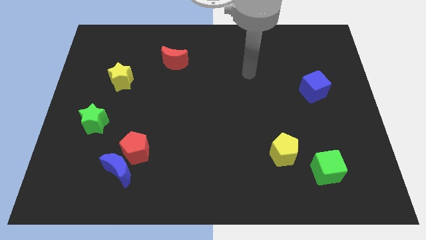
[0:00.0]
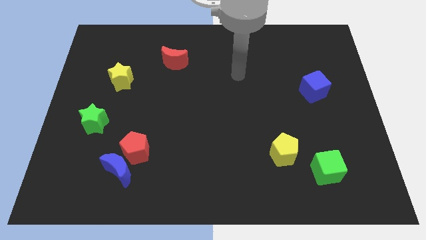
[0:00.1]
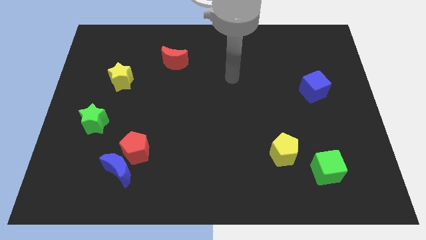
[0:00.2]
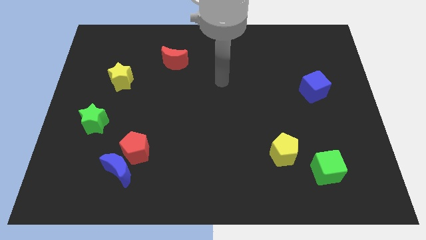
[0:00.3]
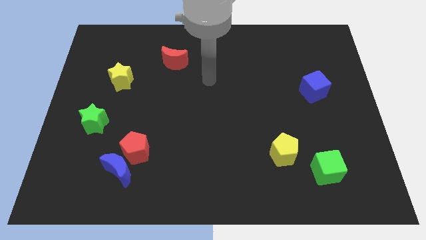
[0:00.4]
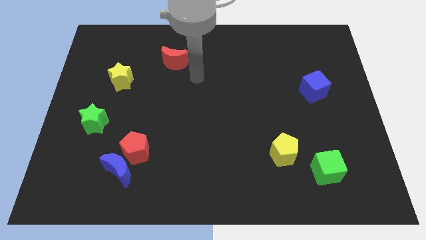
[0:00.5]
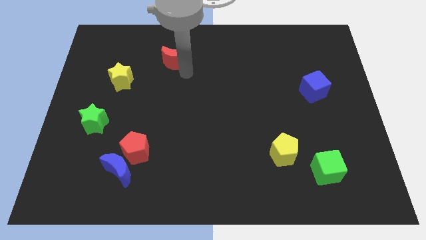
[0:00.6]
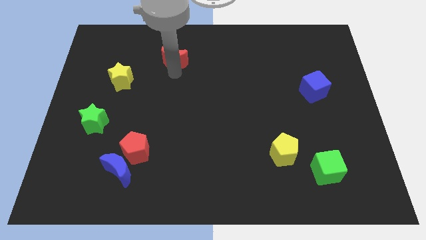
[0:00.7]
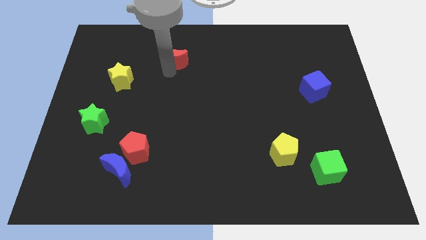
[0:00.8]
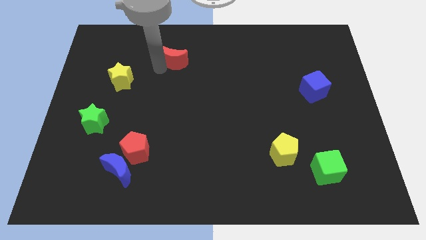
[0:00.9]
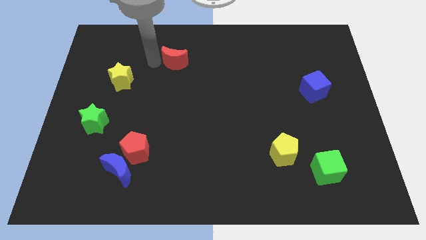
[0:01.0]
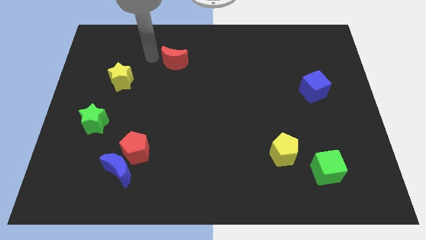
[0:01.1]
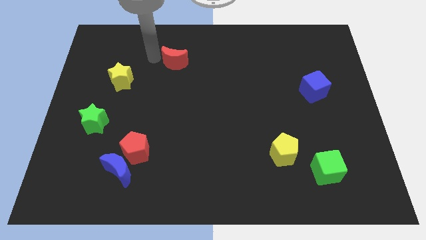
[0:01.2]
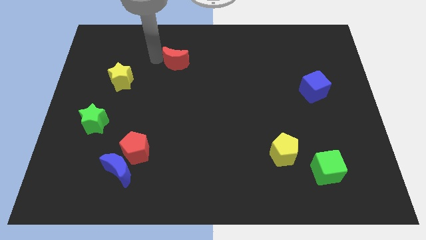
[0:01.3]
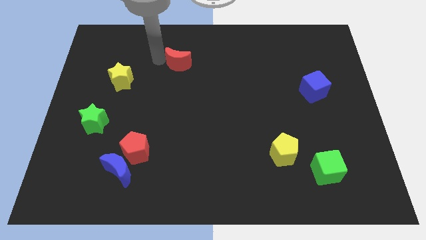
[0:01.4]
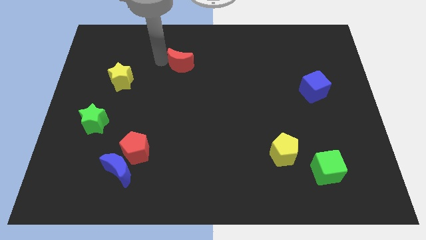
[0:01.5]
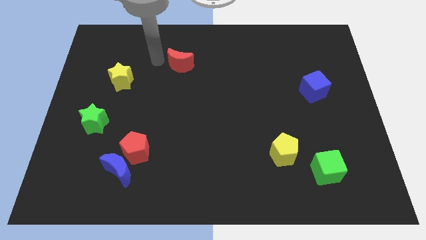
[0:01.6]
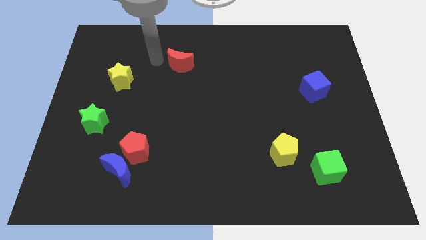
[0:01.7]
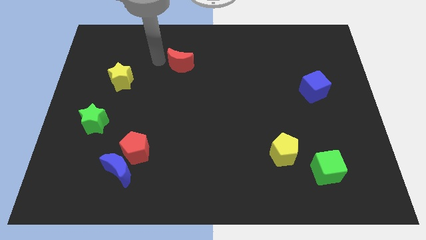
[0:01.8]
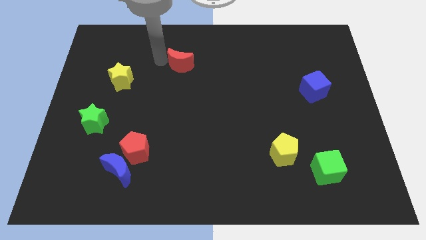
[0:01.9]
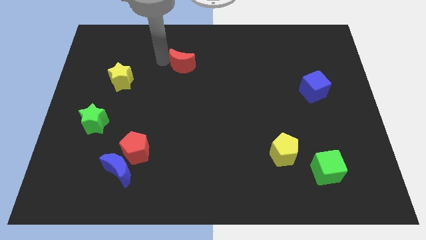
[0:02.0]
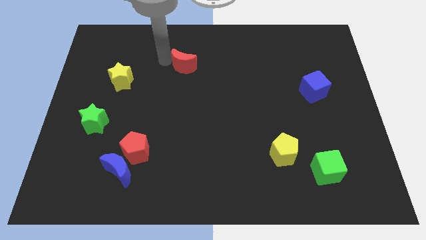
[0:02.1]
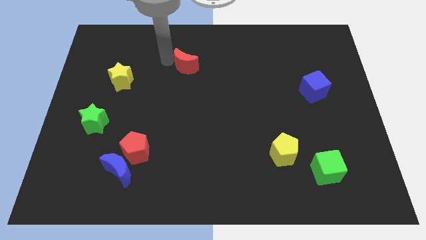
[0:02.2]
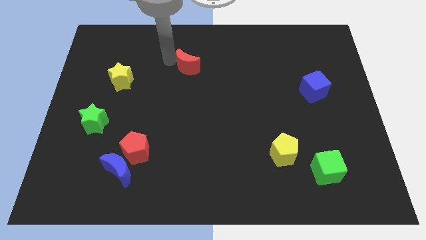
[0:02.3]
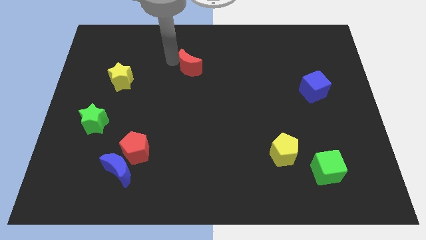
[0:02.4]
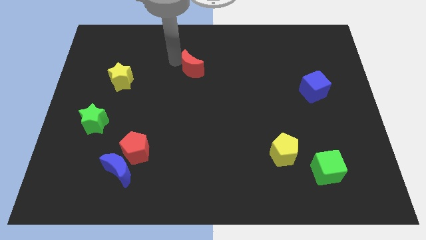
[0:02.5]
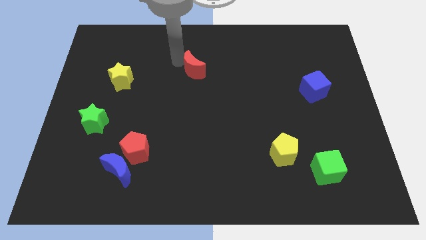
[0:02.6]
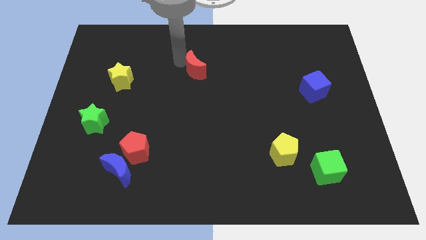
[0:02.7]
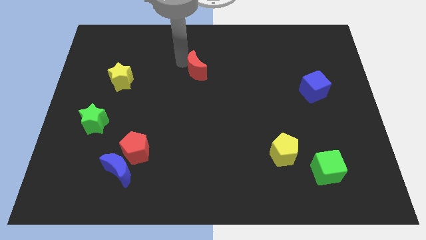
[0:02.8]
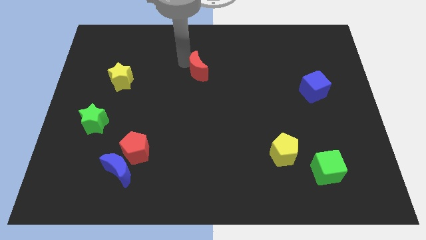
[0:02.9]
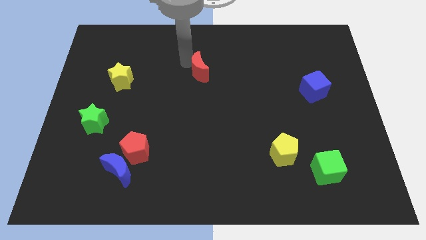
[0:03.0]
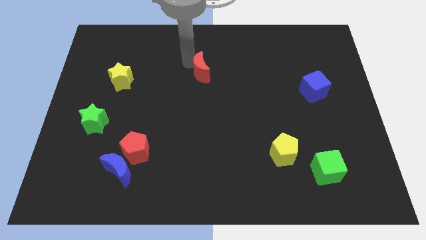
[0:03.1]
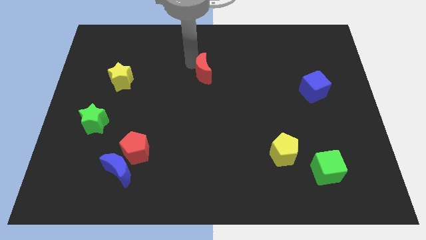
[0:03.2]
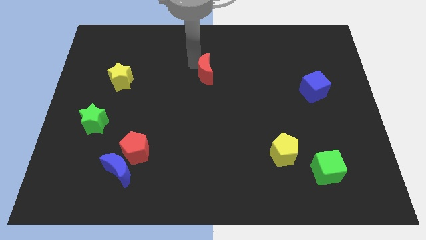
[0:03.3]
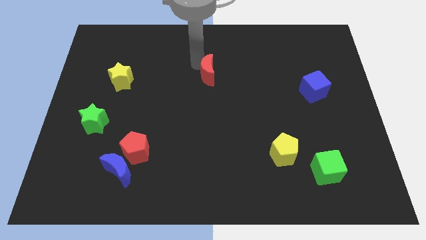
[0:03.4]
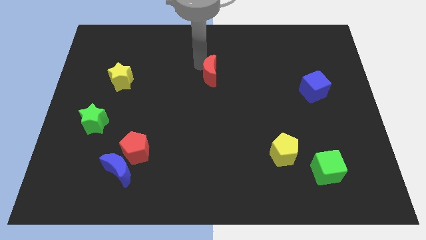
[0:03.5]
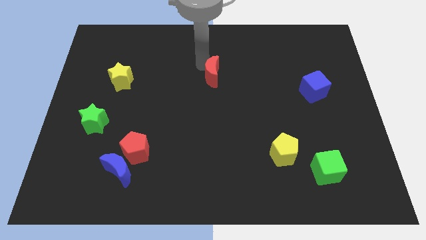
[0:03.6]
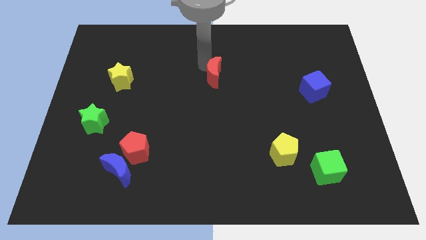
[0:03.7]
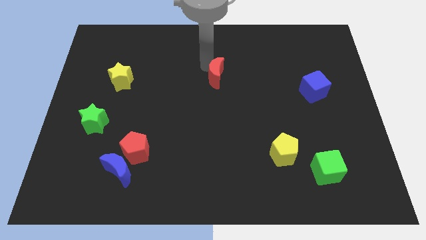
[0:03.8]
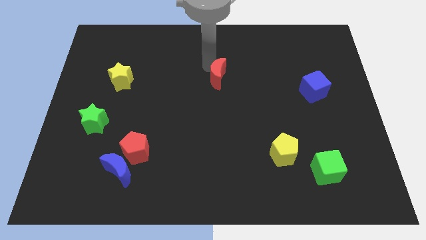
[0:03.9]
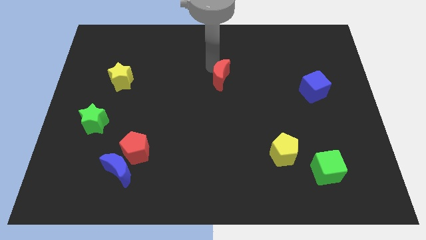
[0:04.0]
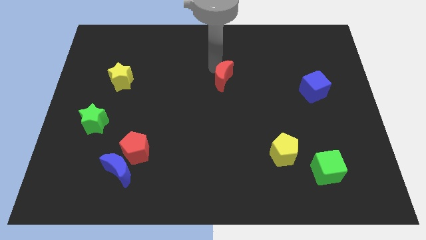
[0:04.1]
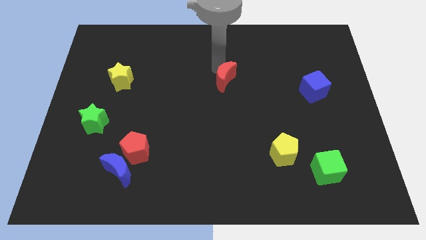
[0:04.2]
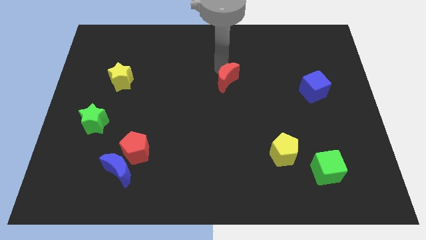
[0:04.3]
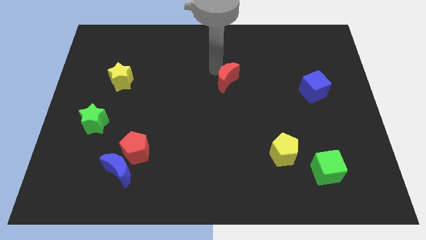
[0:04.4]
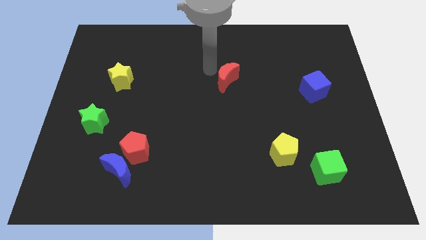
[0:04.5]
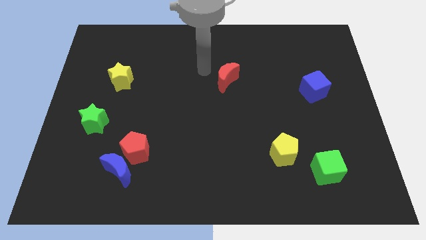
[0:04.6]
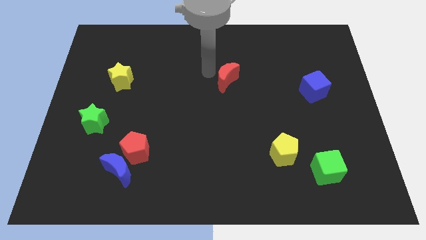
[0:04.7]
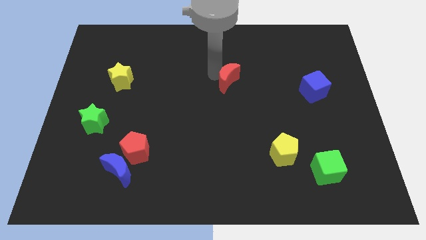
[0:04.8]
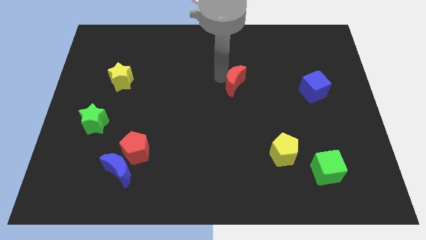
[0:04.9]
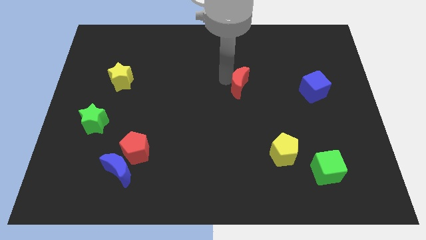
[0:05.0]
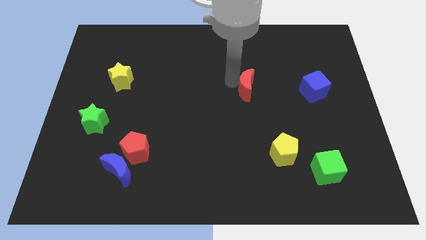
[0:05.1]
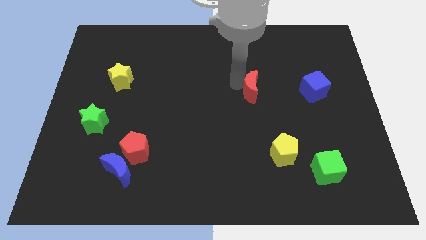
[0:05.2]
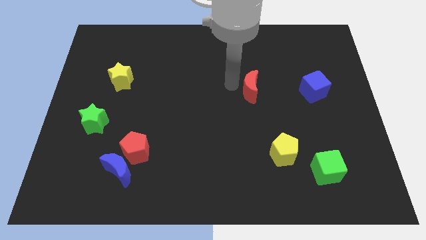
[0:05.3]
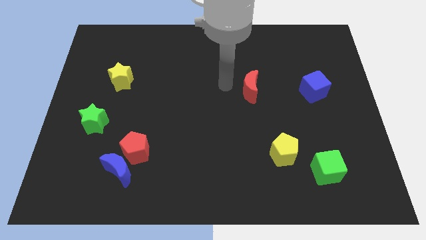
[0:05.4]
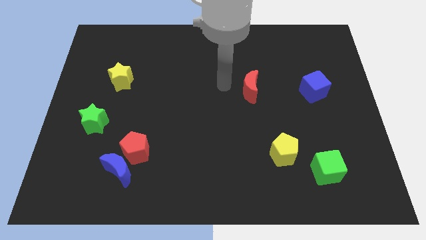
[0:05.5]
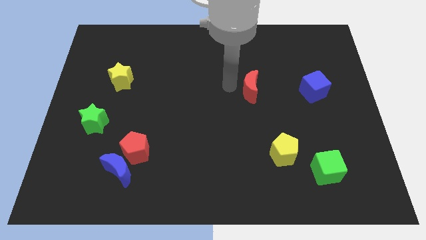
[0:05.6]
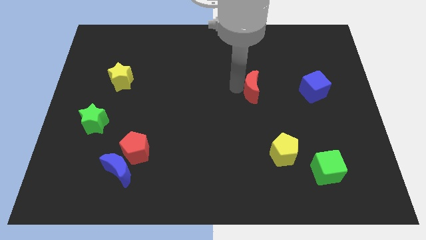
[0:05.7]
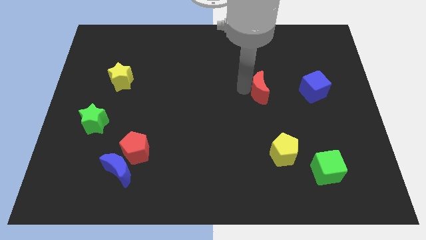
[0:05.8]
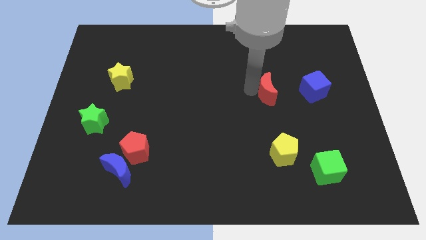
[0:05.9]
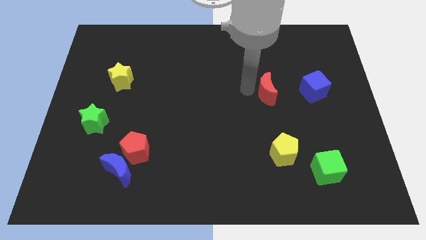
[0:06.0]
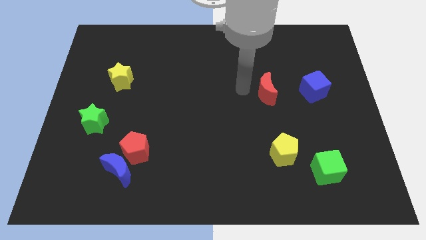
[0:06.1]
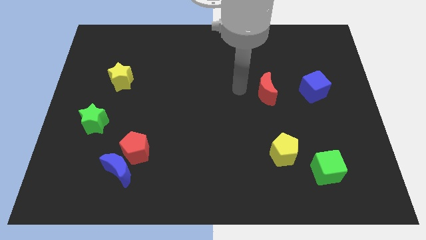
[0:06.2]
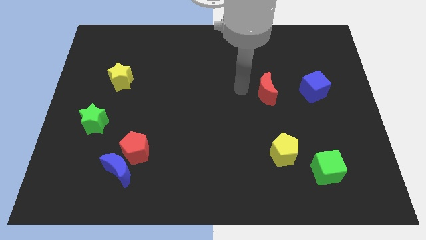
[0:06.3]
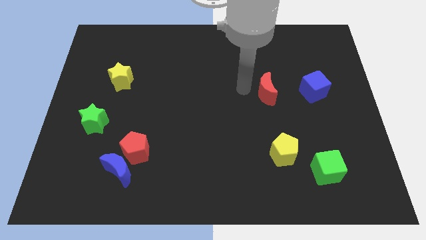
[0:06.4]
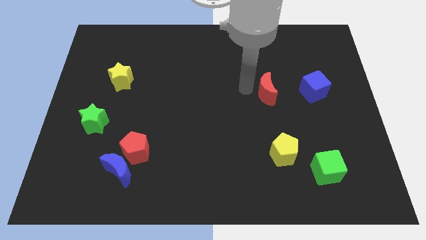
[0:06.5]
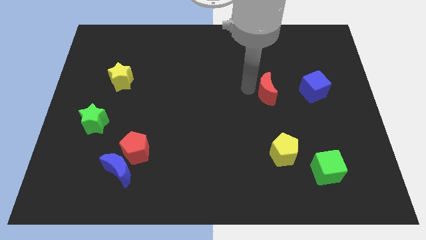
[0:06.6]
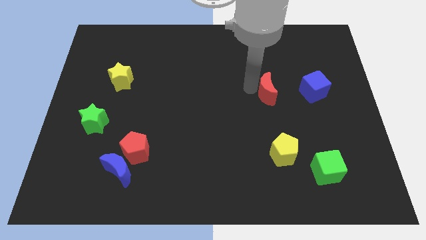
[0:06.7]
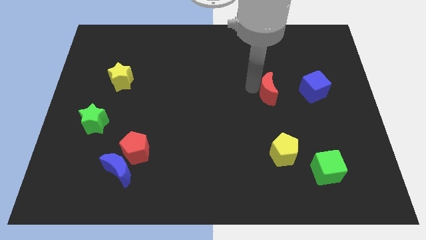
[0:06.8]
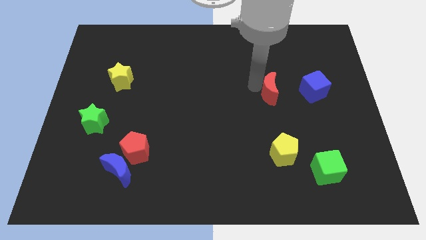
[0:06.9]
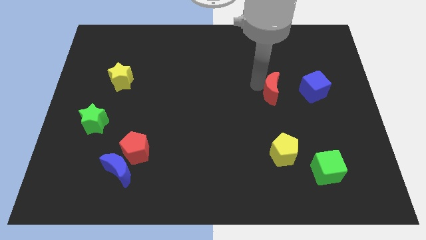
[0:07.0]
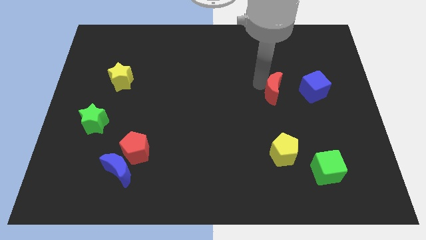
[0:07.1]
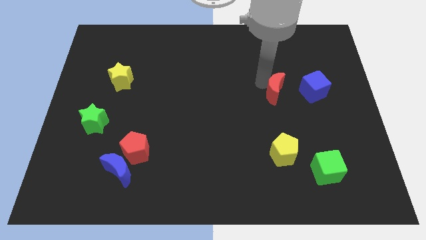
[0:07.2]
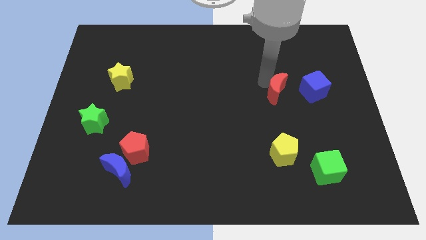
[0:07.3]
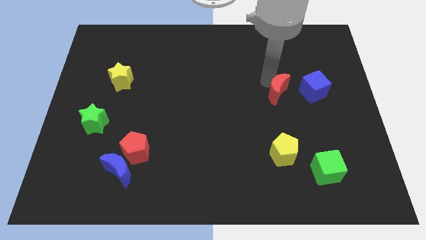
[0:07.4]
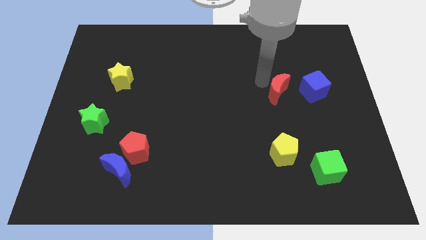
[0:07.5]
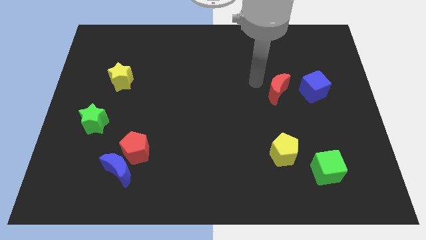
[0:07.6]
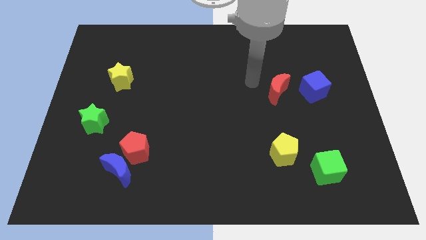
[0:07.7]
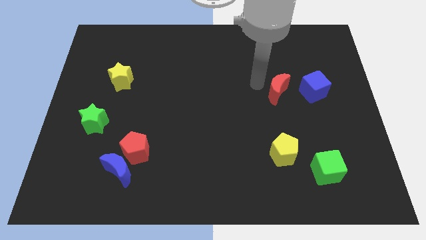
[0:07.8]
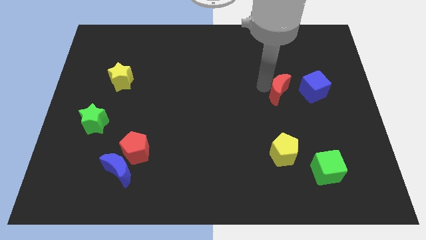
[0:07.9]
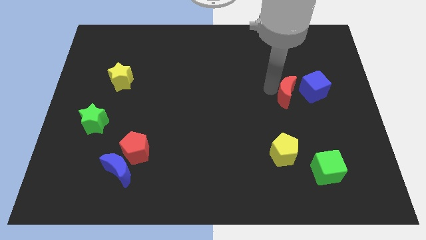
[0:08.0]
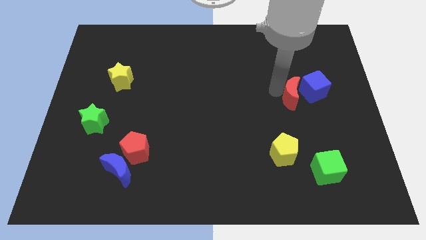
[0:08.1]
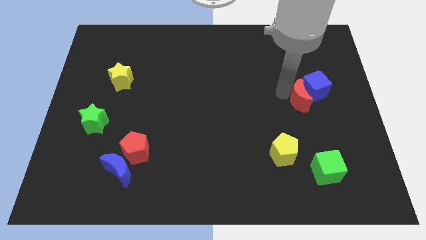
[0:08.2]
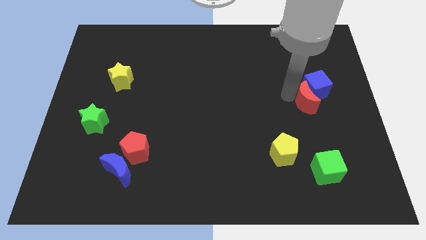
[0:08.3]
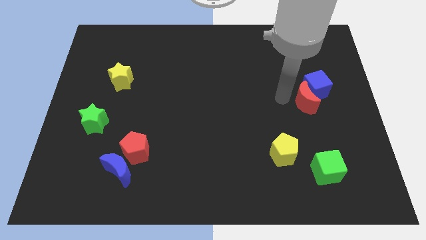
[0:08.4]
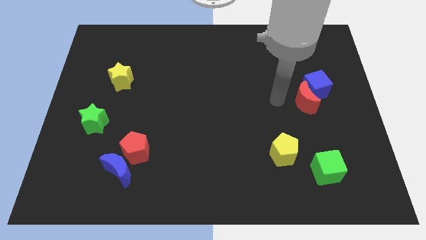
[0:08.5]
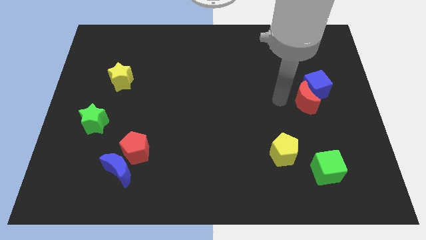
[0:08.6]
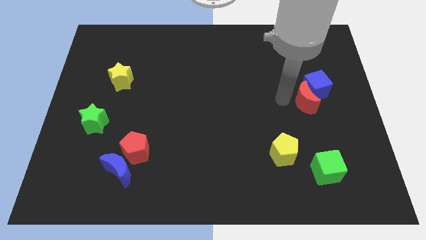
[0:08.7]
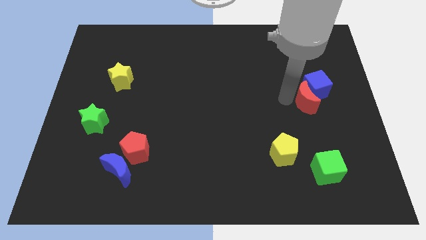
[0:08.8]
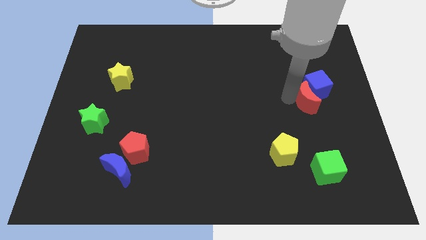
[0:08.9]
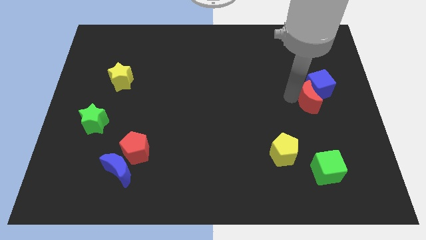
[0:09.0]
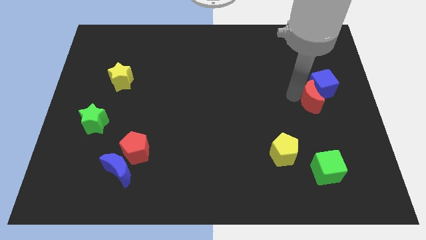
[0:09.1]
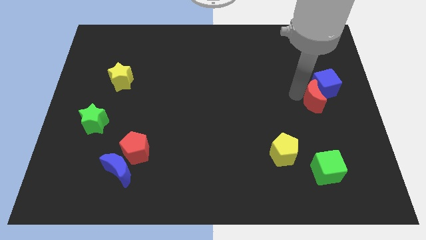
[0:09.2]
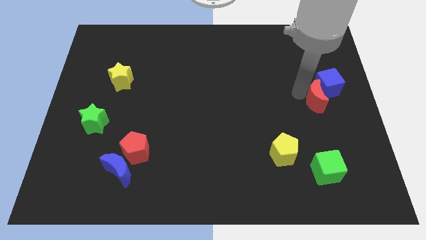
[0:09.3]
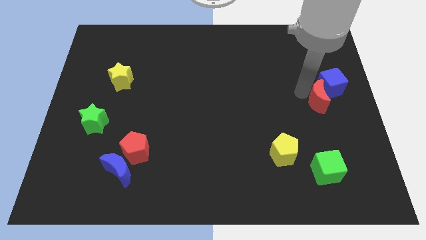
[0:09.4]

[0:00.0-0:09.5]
push the red moon to the right side
